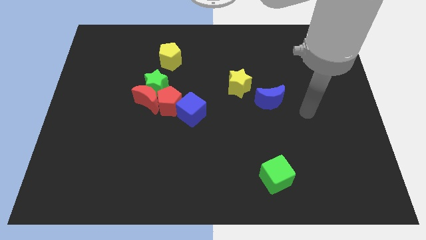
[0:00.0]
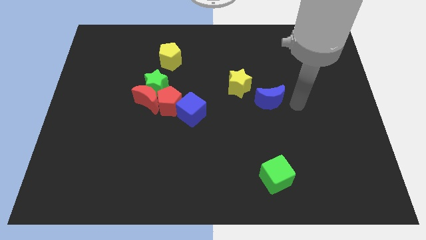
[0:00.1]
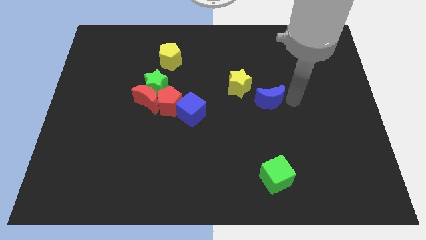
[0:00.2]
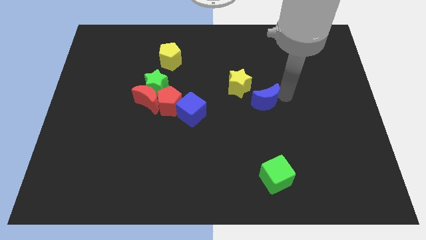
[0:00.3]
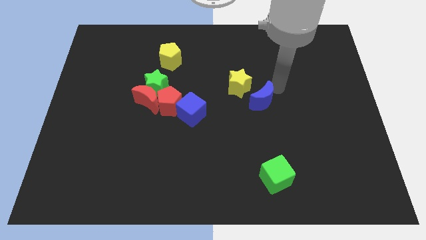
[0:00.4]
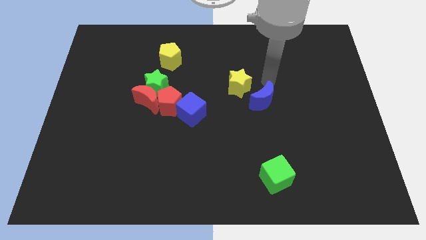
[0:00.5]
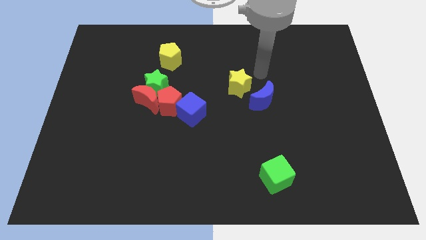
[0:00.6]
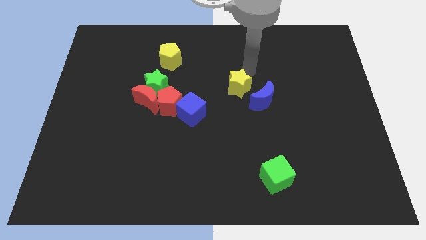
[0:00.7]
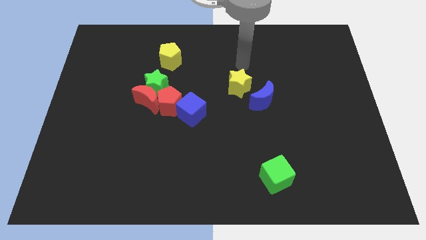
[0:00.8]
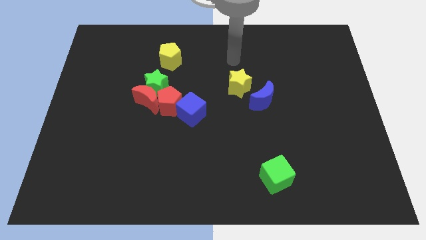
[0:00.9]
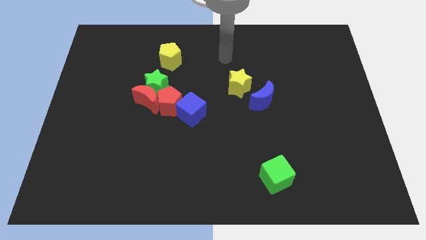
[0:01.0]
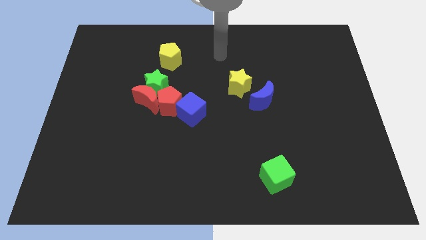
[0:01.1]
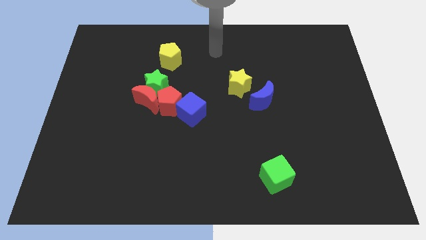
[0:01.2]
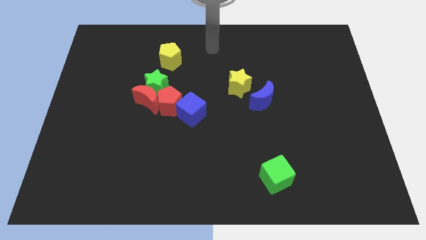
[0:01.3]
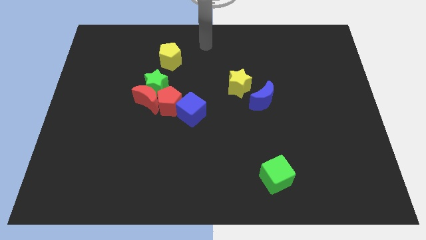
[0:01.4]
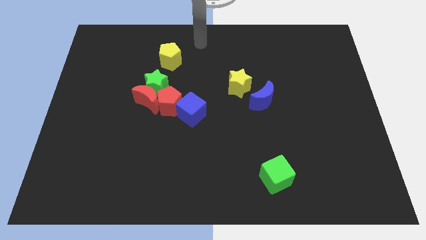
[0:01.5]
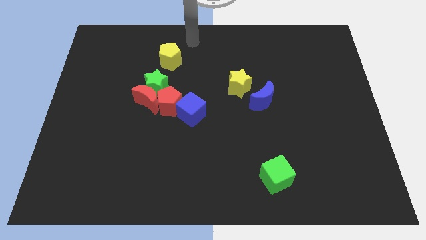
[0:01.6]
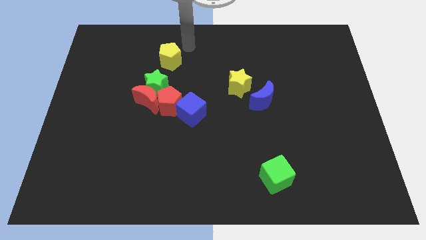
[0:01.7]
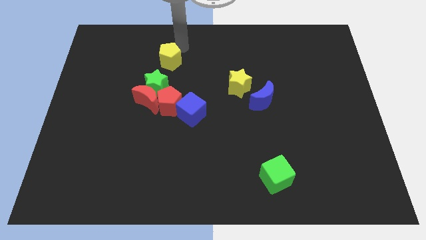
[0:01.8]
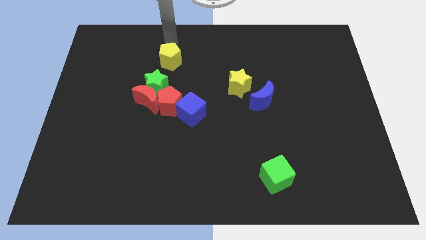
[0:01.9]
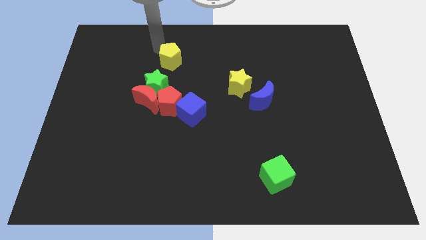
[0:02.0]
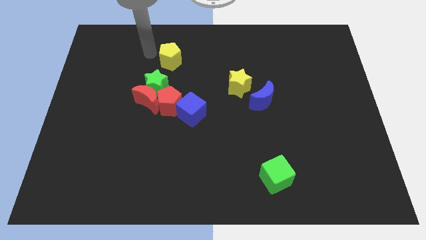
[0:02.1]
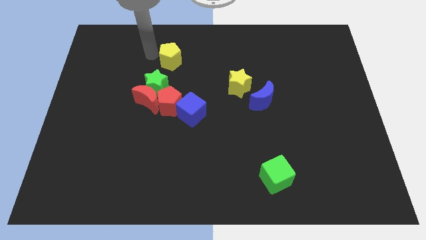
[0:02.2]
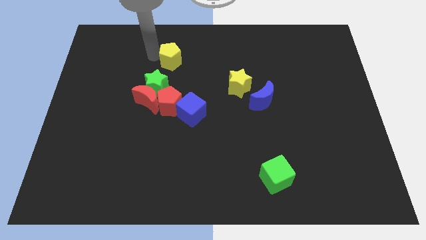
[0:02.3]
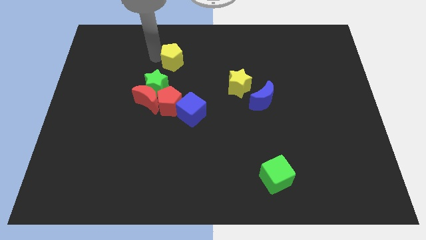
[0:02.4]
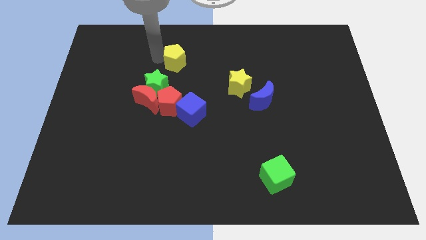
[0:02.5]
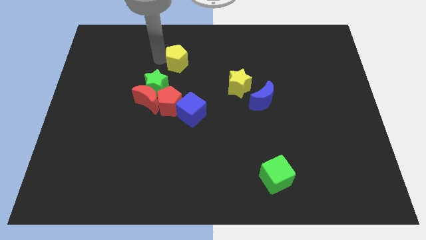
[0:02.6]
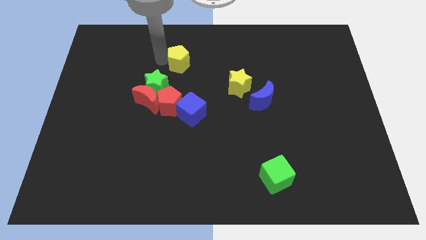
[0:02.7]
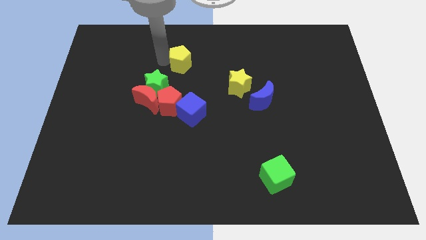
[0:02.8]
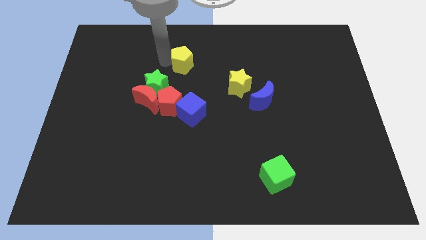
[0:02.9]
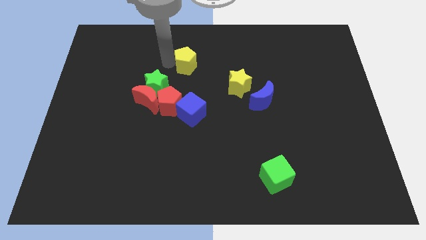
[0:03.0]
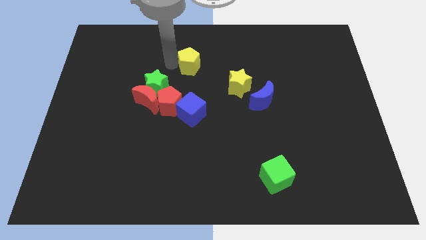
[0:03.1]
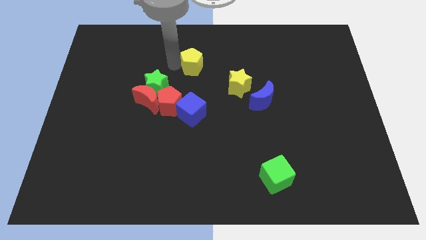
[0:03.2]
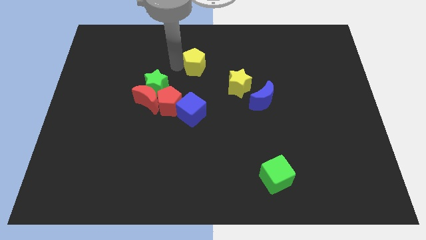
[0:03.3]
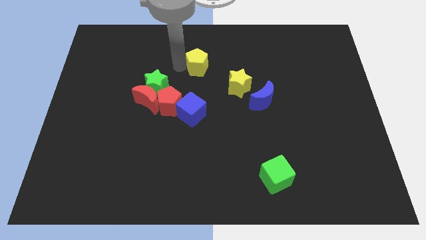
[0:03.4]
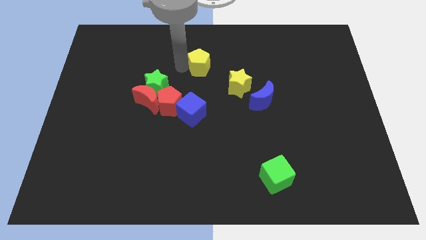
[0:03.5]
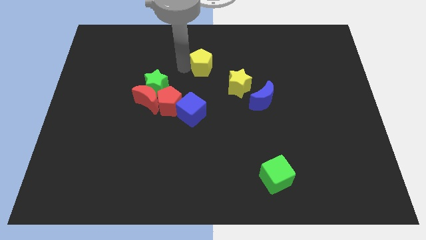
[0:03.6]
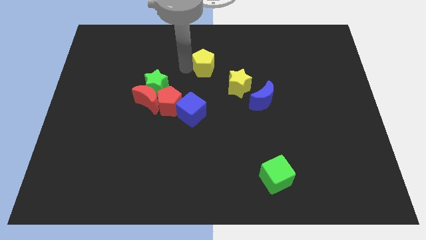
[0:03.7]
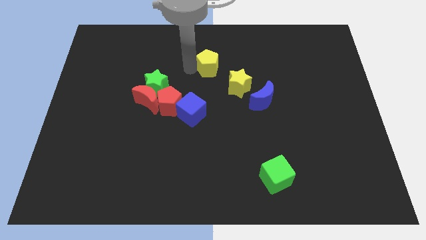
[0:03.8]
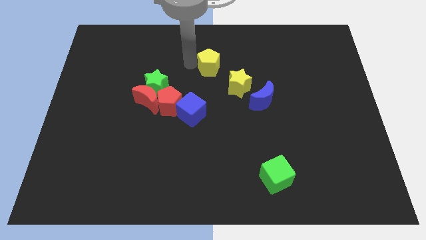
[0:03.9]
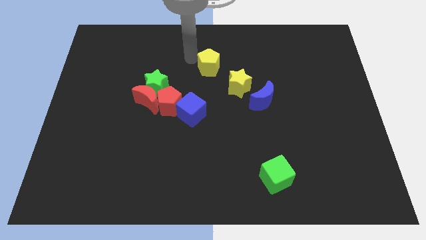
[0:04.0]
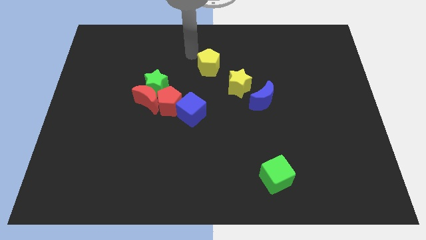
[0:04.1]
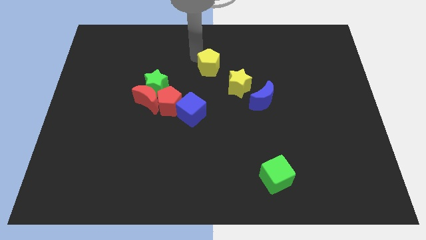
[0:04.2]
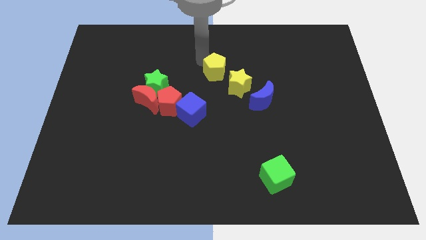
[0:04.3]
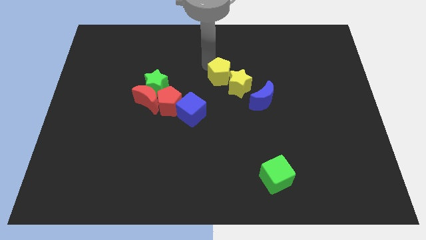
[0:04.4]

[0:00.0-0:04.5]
slide the yellow pentagon close to the yellow star

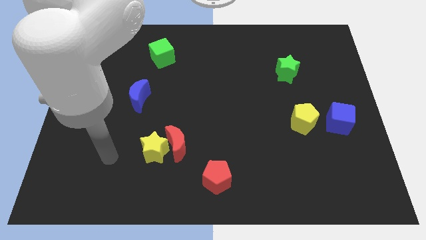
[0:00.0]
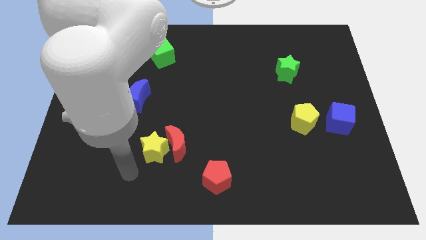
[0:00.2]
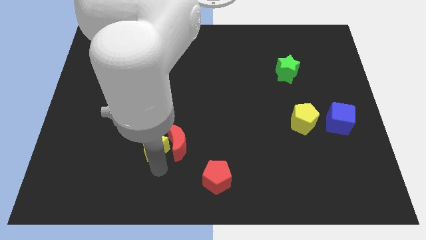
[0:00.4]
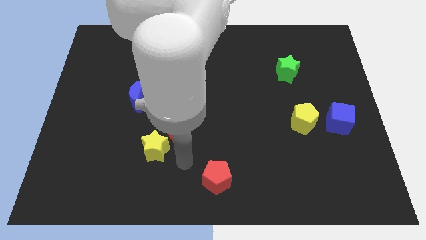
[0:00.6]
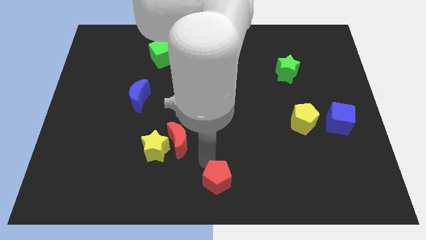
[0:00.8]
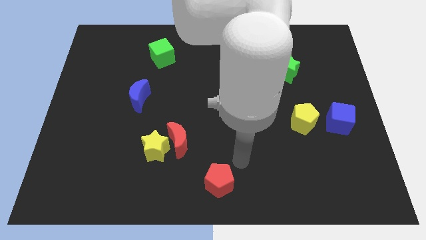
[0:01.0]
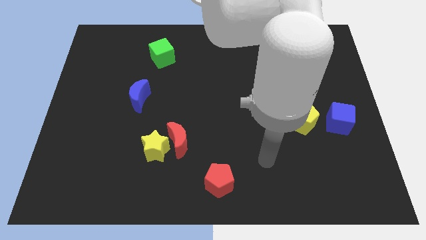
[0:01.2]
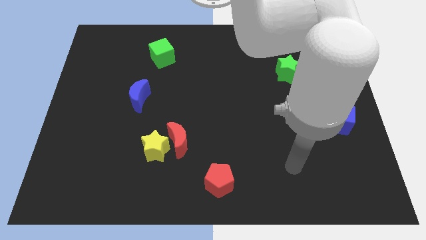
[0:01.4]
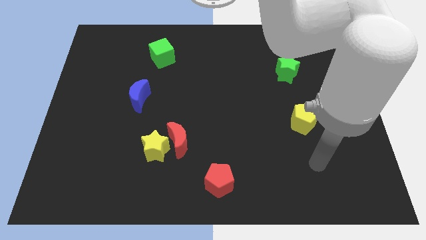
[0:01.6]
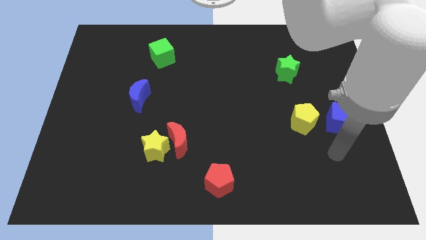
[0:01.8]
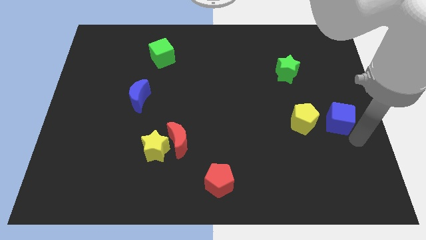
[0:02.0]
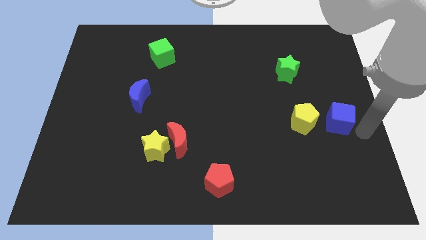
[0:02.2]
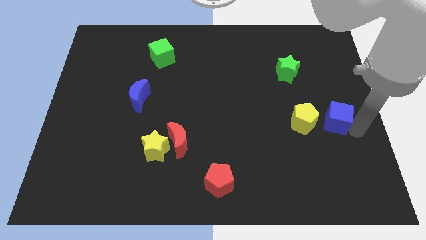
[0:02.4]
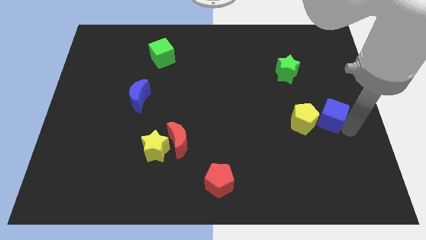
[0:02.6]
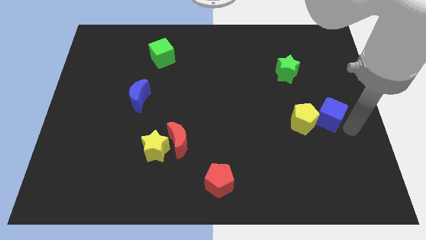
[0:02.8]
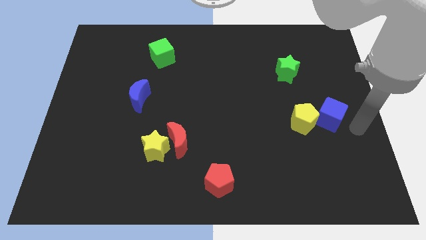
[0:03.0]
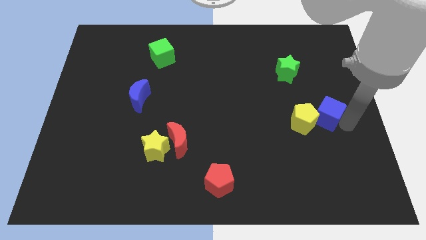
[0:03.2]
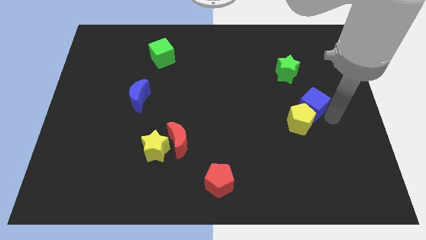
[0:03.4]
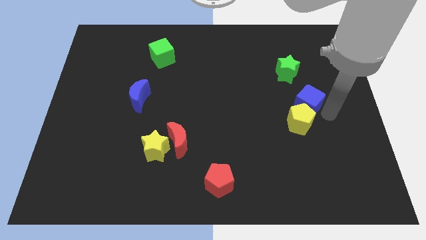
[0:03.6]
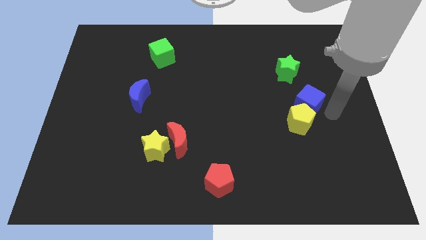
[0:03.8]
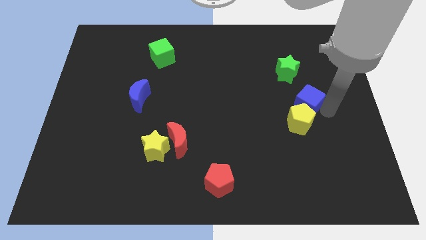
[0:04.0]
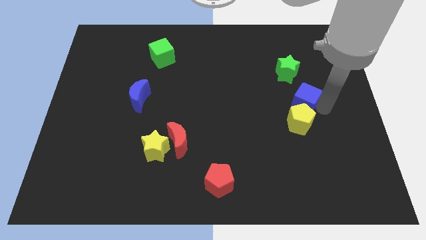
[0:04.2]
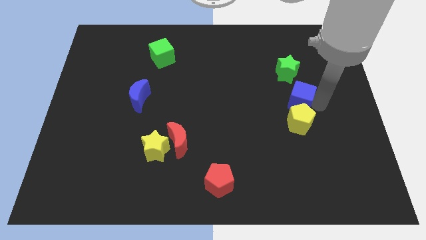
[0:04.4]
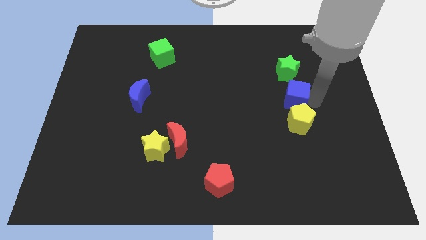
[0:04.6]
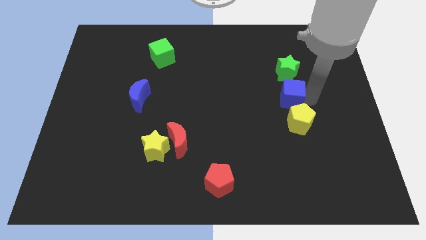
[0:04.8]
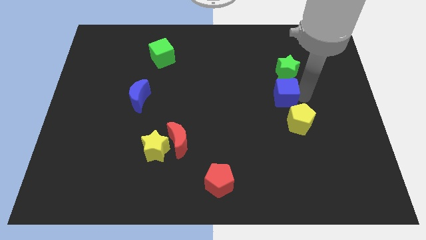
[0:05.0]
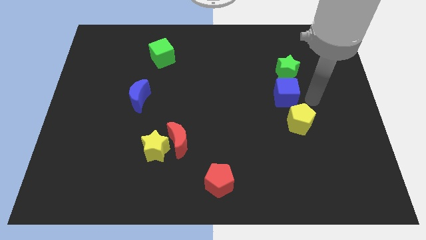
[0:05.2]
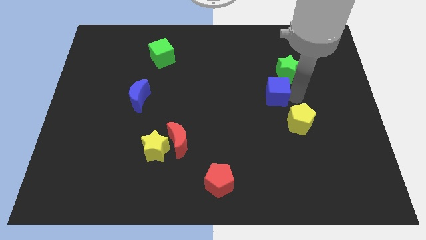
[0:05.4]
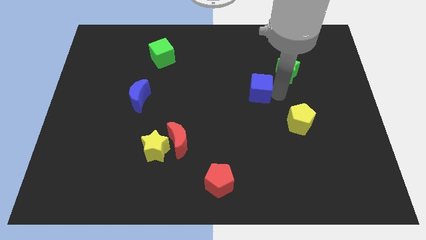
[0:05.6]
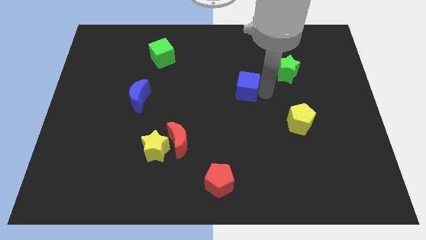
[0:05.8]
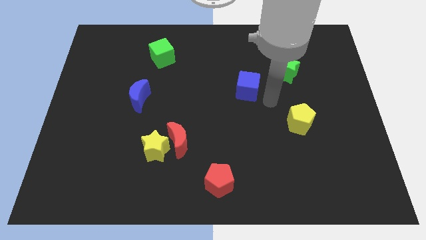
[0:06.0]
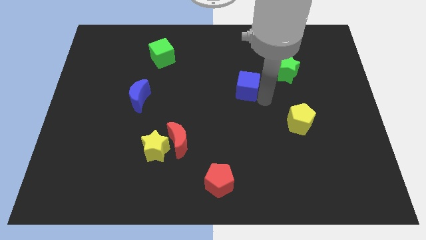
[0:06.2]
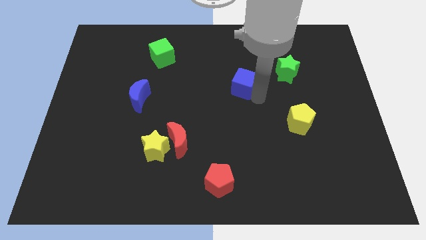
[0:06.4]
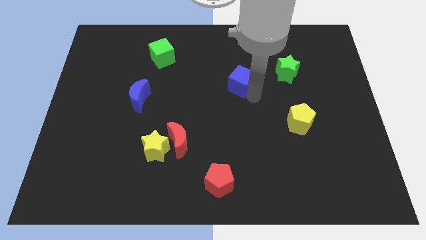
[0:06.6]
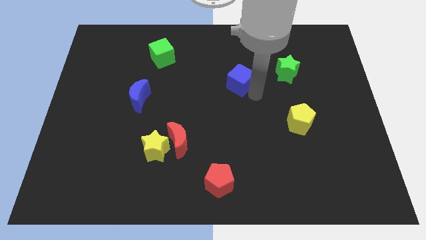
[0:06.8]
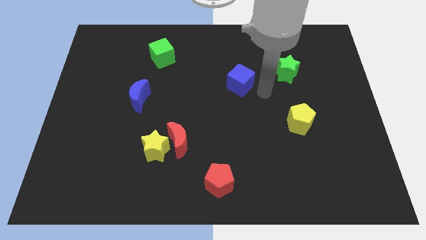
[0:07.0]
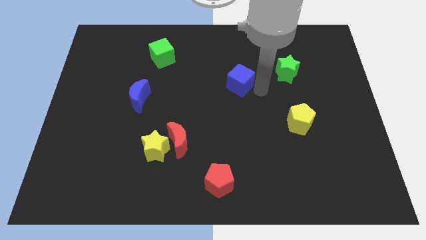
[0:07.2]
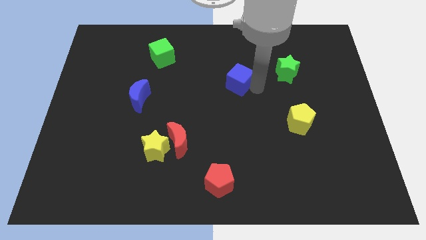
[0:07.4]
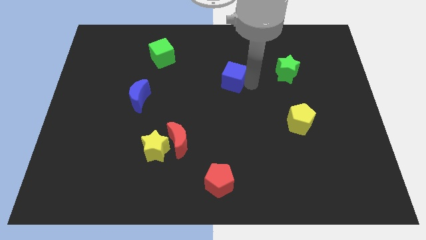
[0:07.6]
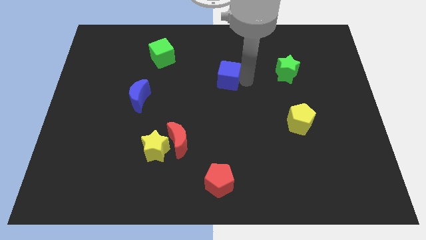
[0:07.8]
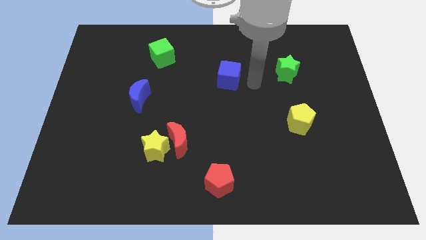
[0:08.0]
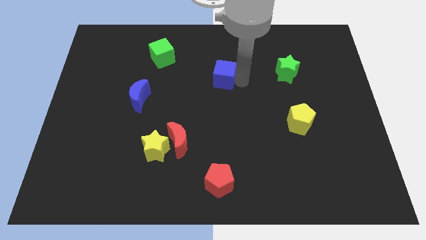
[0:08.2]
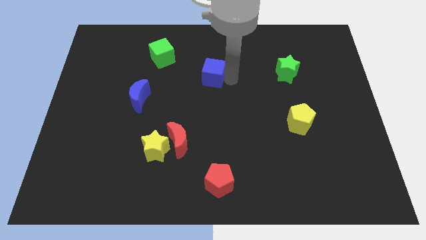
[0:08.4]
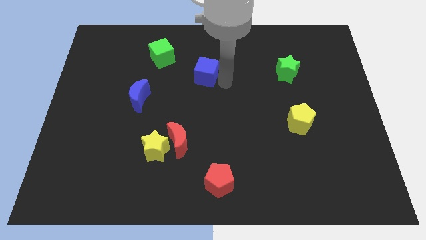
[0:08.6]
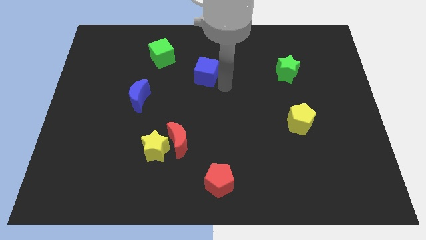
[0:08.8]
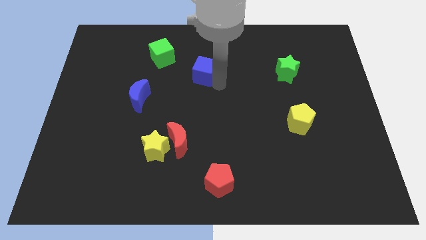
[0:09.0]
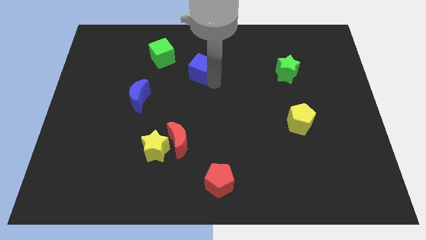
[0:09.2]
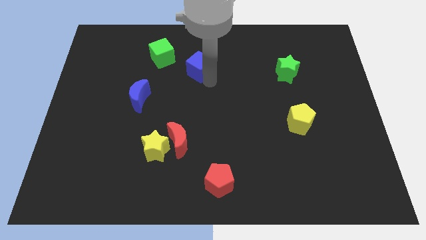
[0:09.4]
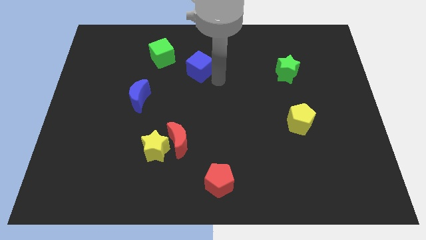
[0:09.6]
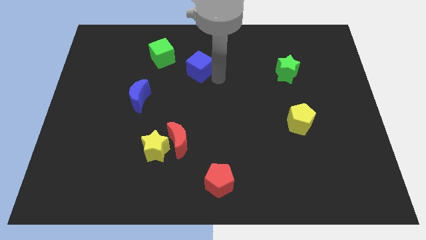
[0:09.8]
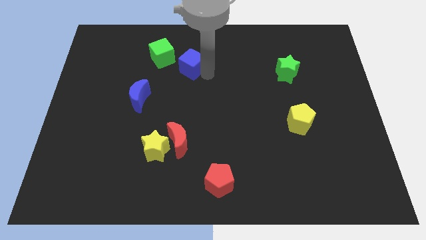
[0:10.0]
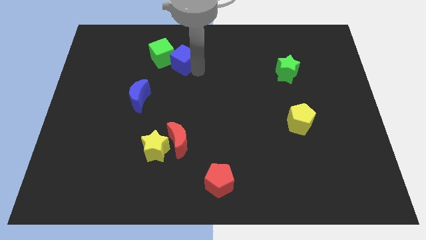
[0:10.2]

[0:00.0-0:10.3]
move the blue cube close to the green cube
